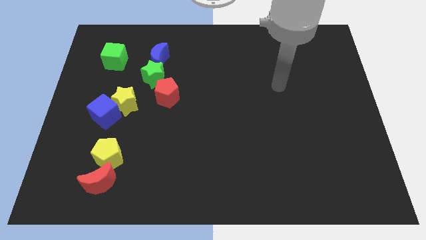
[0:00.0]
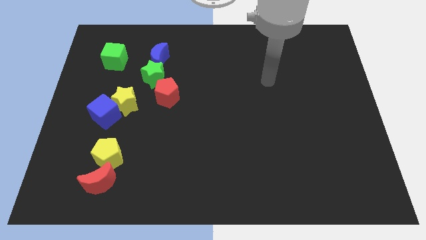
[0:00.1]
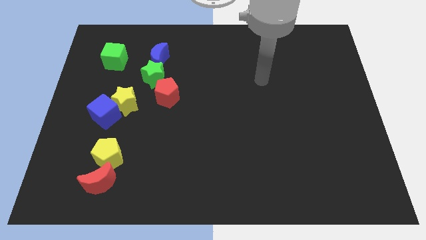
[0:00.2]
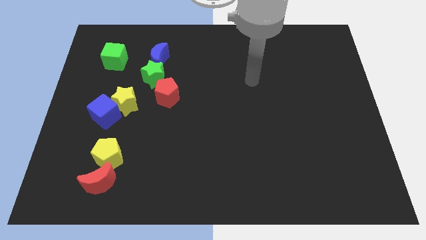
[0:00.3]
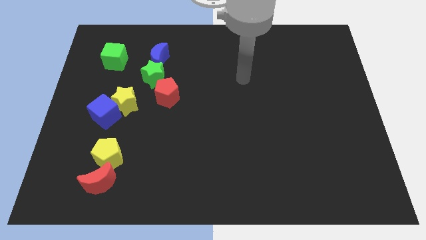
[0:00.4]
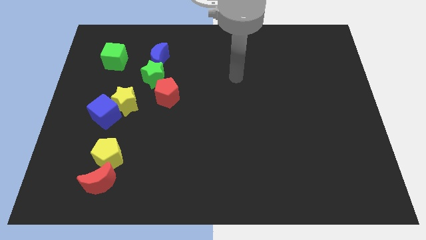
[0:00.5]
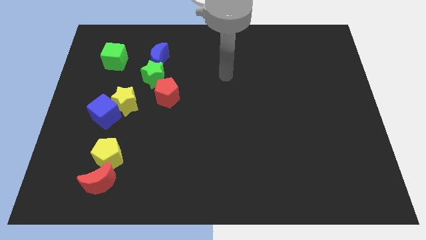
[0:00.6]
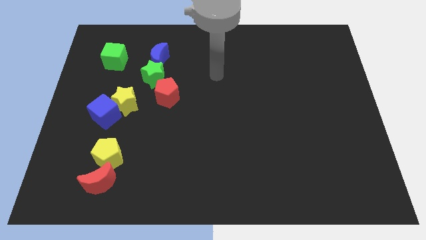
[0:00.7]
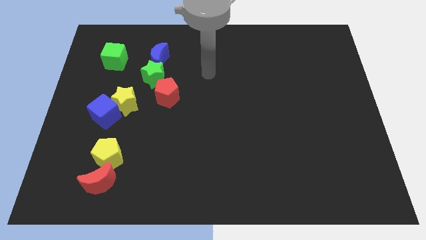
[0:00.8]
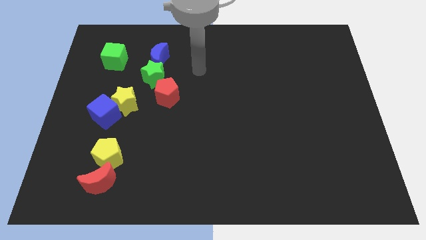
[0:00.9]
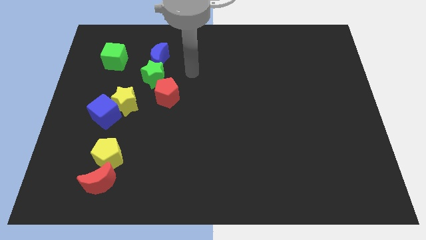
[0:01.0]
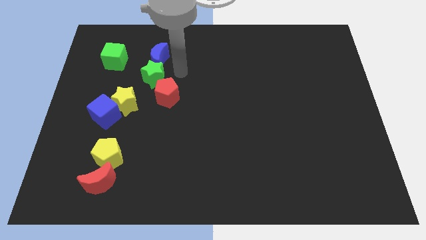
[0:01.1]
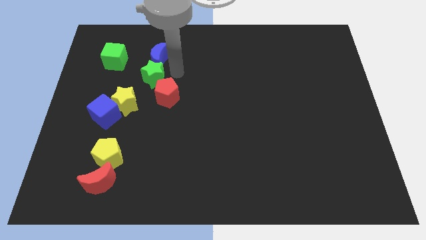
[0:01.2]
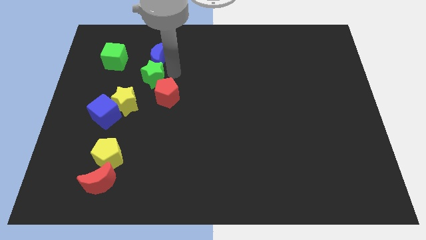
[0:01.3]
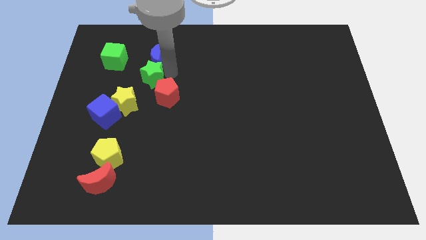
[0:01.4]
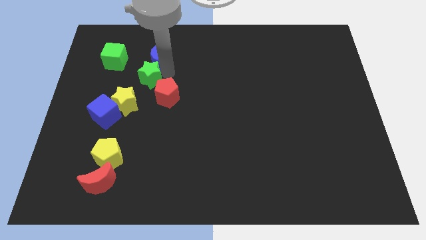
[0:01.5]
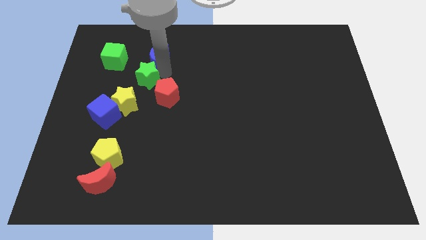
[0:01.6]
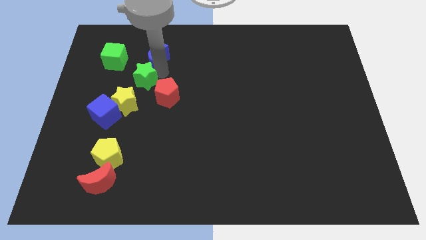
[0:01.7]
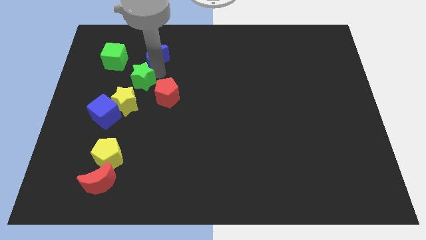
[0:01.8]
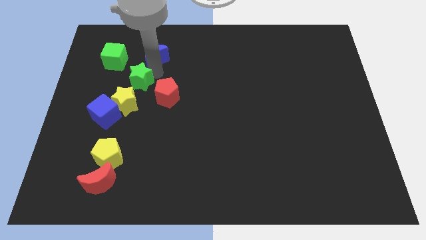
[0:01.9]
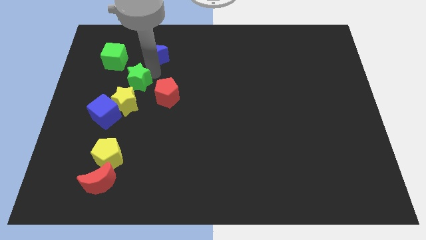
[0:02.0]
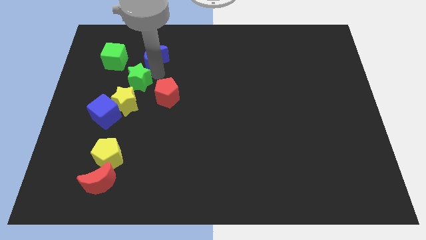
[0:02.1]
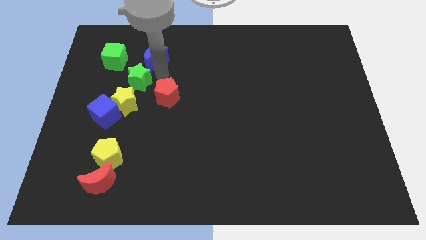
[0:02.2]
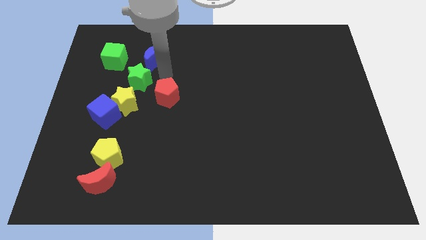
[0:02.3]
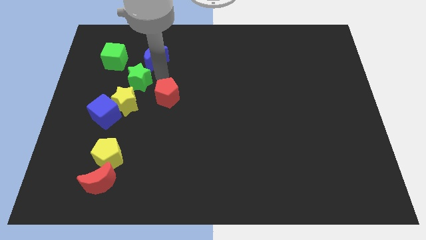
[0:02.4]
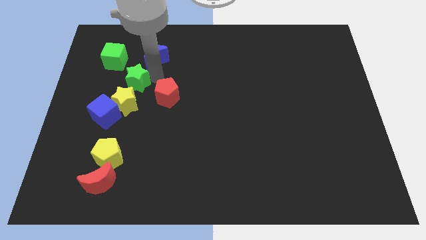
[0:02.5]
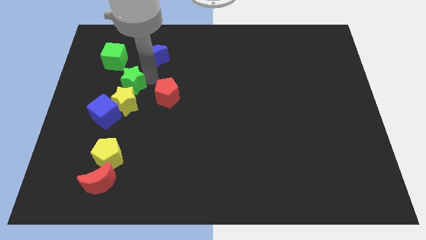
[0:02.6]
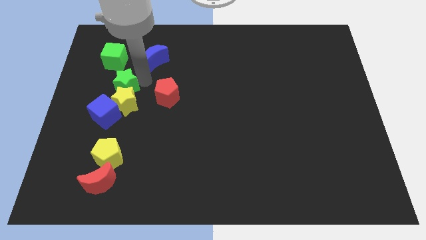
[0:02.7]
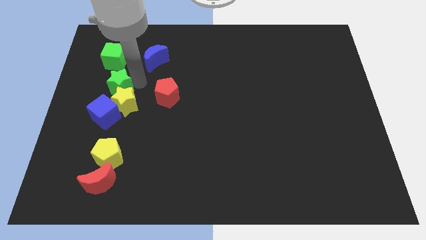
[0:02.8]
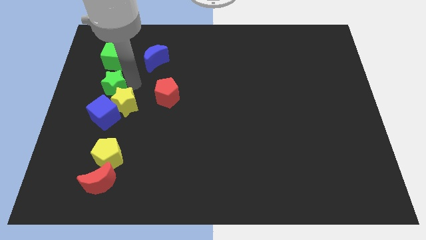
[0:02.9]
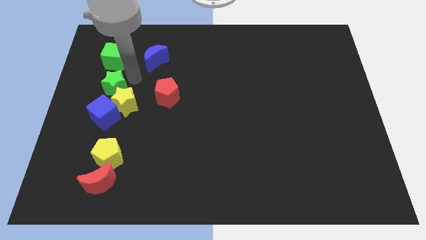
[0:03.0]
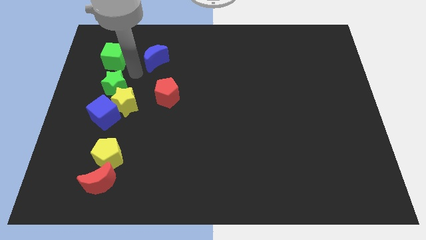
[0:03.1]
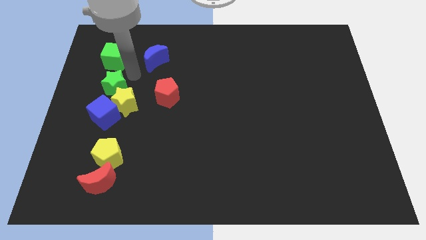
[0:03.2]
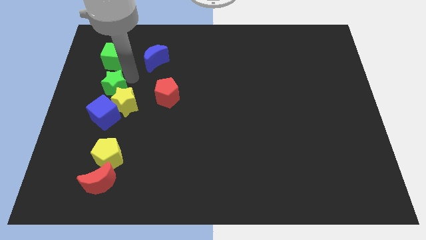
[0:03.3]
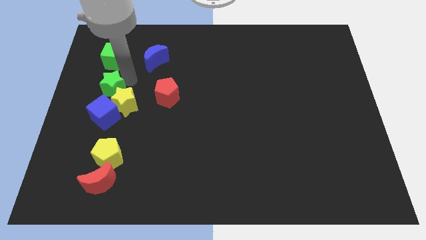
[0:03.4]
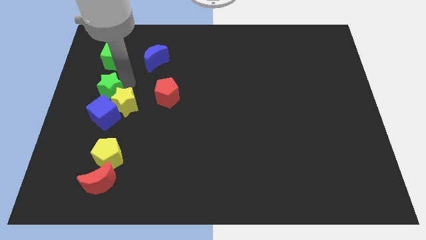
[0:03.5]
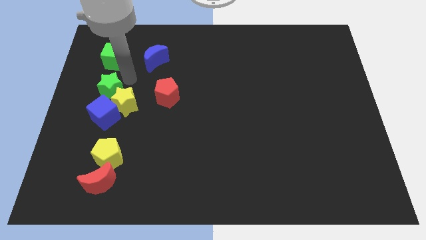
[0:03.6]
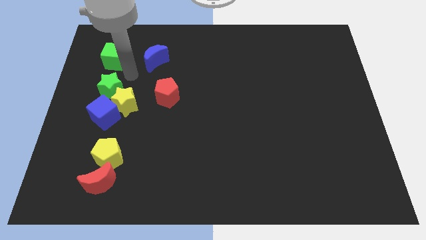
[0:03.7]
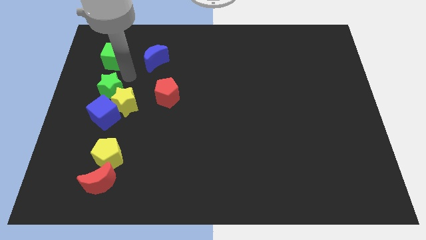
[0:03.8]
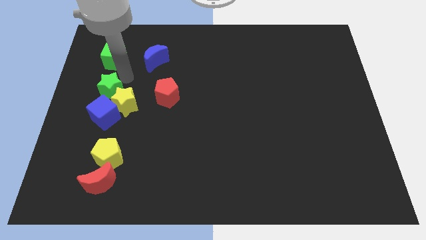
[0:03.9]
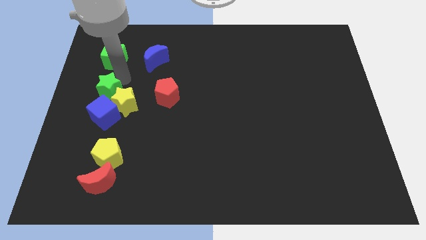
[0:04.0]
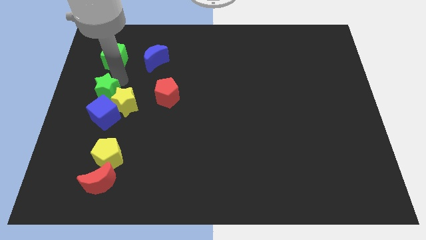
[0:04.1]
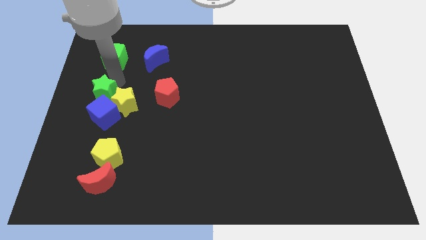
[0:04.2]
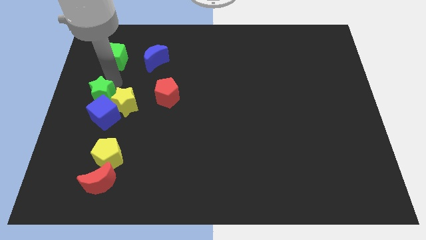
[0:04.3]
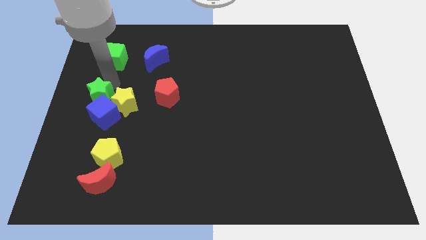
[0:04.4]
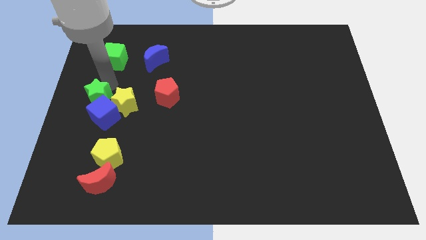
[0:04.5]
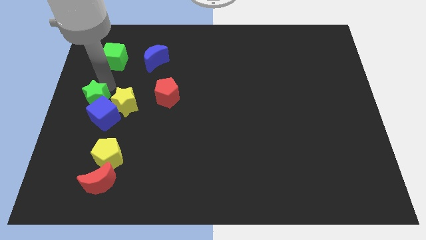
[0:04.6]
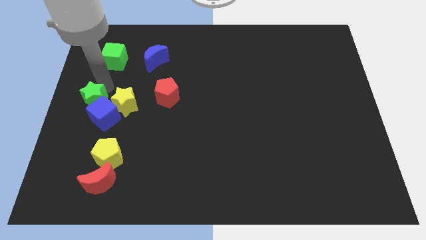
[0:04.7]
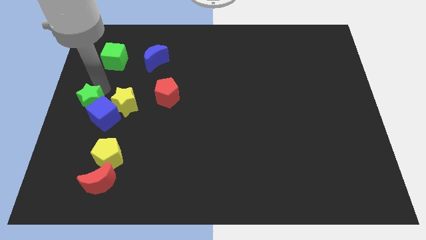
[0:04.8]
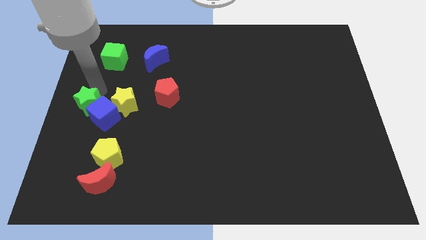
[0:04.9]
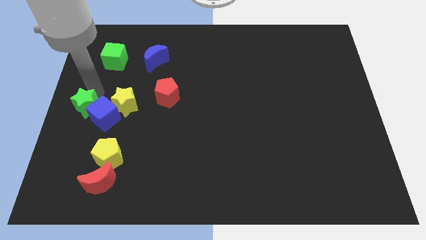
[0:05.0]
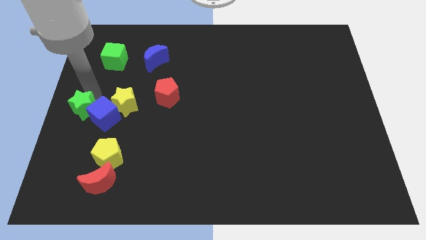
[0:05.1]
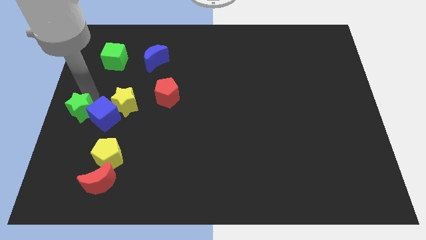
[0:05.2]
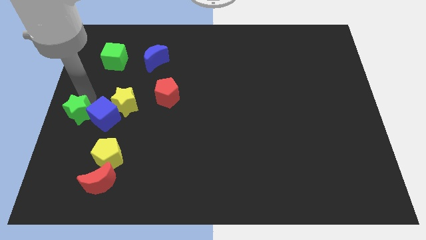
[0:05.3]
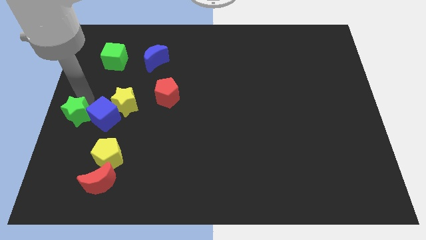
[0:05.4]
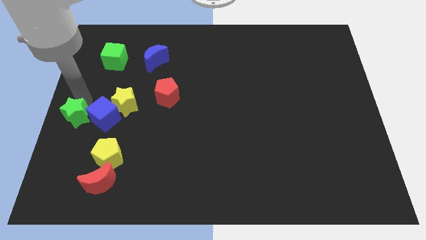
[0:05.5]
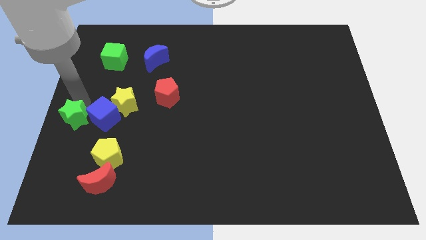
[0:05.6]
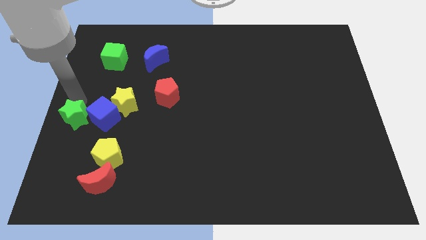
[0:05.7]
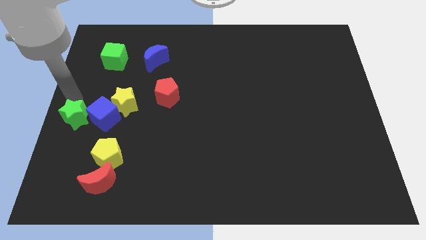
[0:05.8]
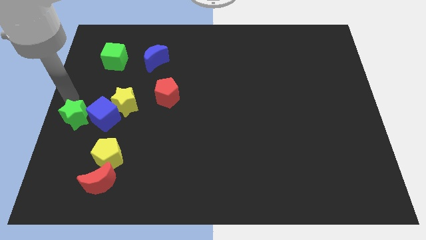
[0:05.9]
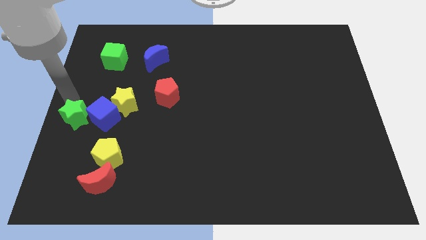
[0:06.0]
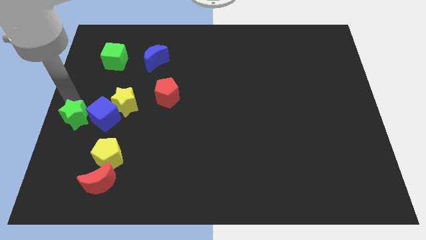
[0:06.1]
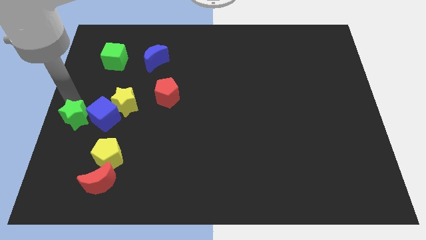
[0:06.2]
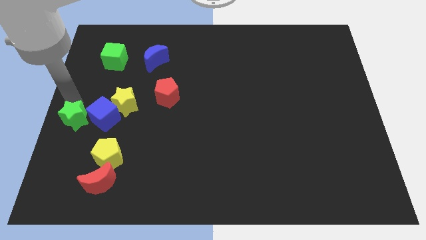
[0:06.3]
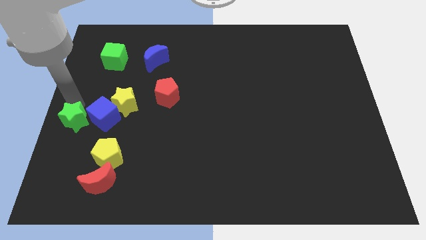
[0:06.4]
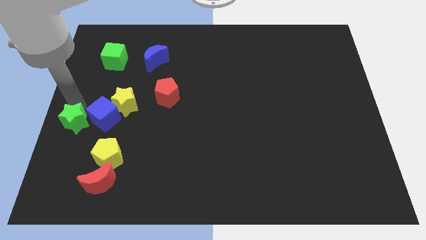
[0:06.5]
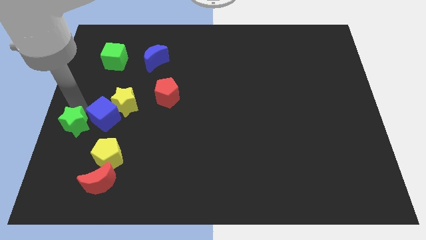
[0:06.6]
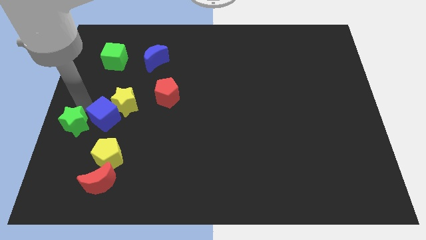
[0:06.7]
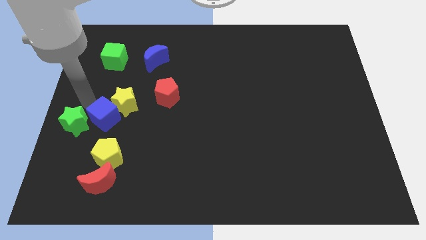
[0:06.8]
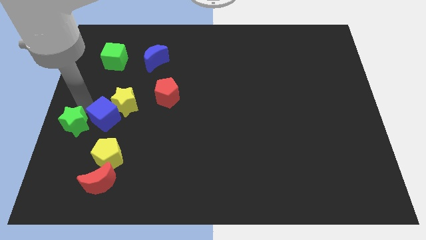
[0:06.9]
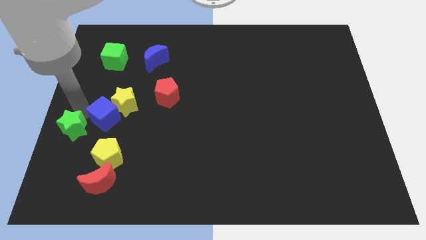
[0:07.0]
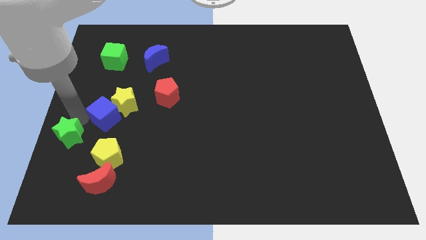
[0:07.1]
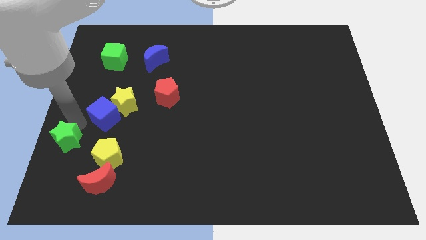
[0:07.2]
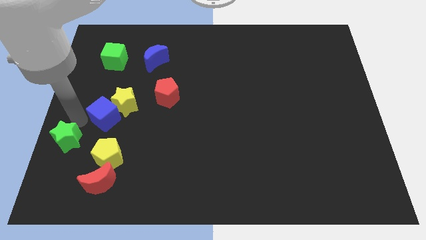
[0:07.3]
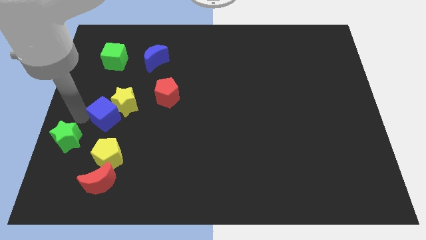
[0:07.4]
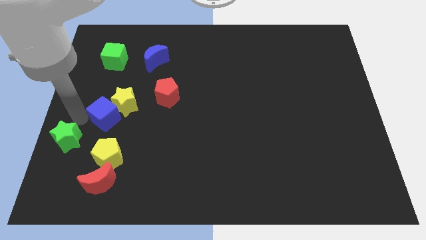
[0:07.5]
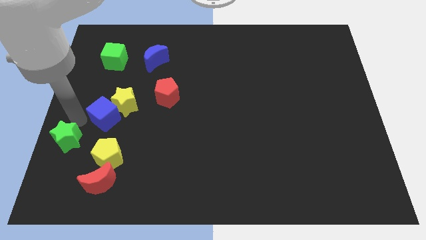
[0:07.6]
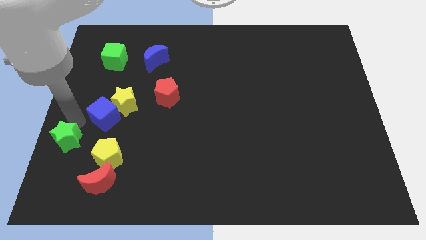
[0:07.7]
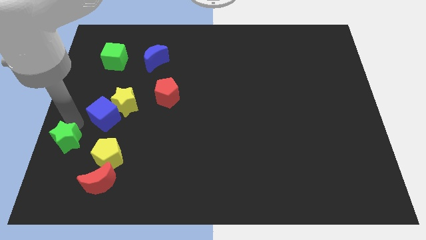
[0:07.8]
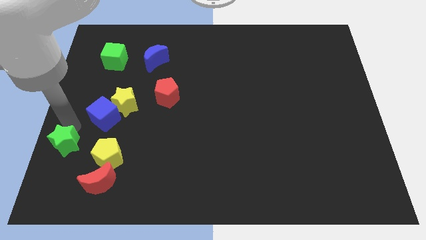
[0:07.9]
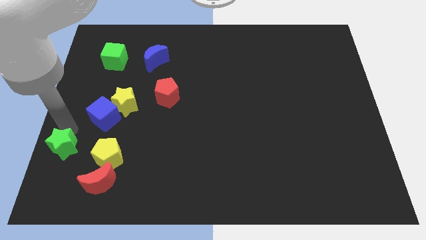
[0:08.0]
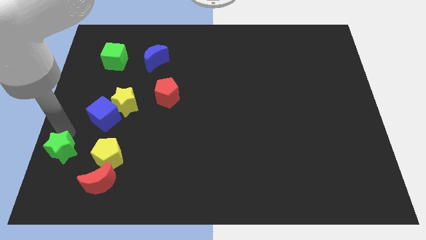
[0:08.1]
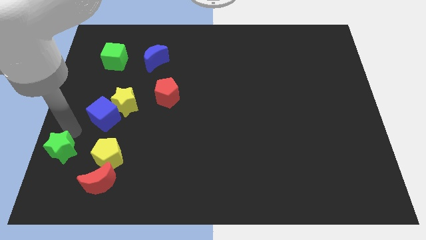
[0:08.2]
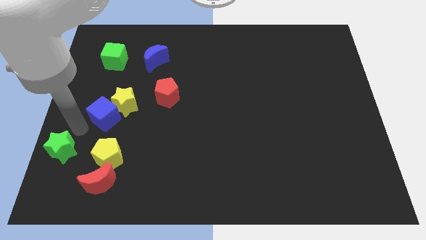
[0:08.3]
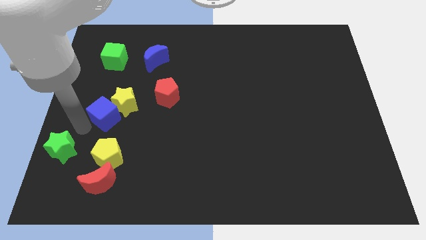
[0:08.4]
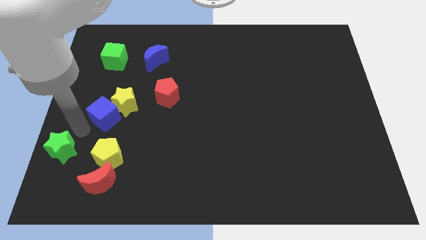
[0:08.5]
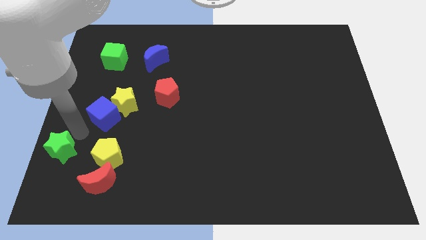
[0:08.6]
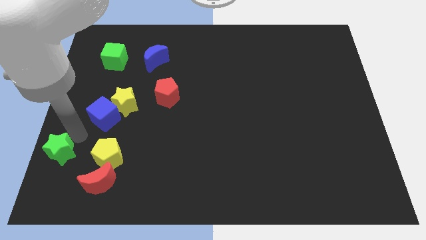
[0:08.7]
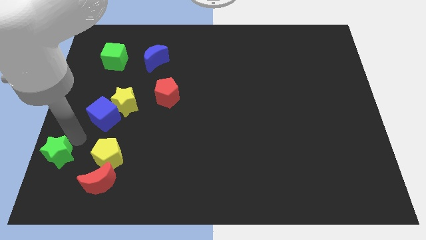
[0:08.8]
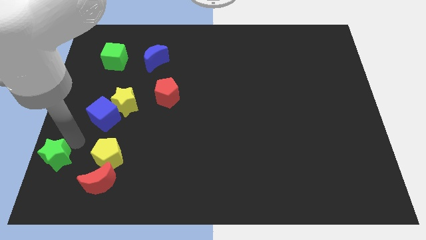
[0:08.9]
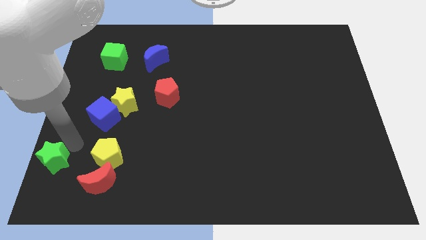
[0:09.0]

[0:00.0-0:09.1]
slide the green star to the bottom left corner
